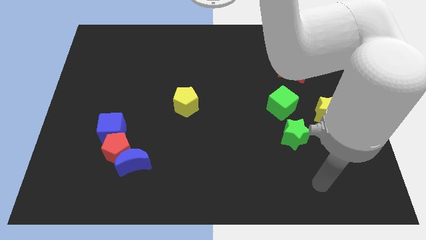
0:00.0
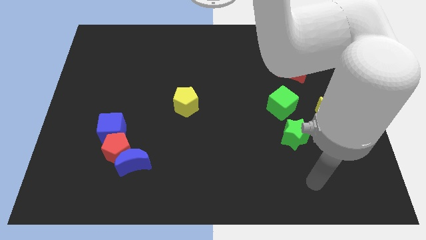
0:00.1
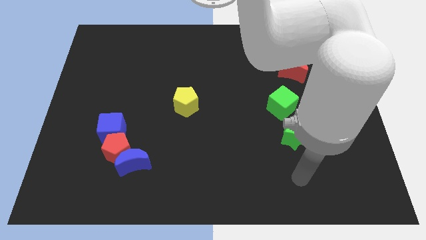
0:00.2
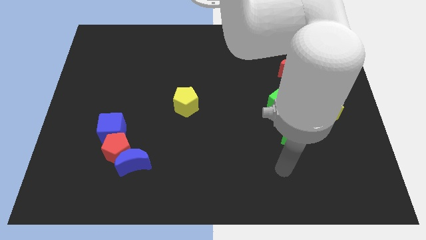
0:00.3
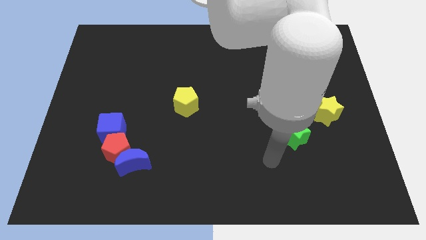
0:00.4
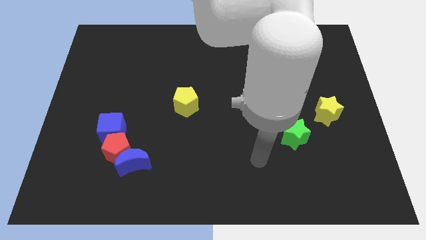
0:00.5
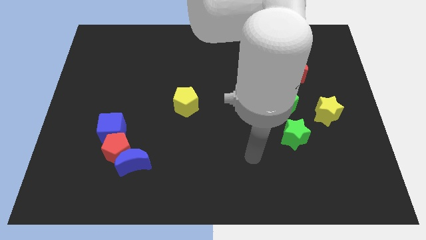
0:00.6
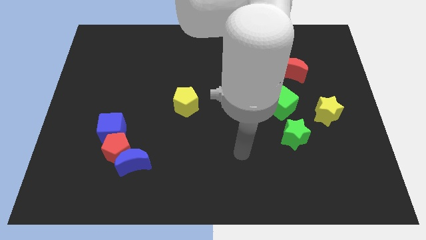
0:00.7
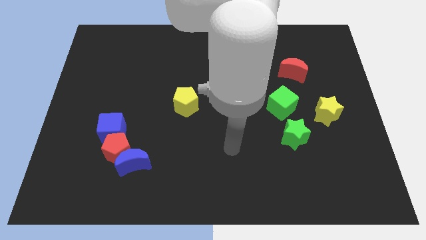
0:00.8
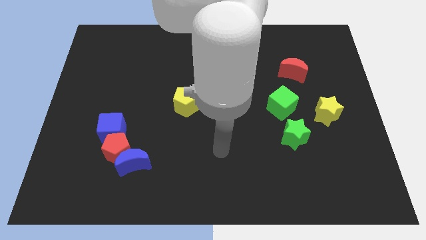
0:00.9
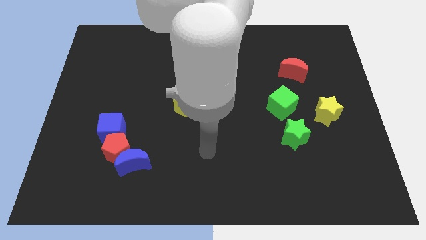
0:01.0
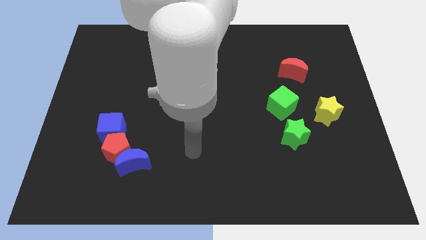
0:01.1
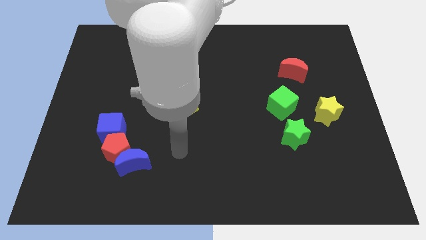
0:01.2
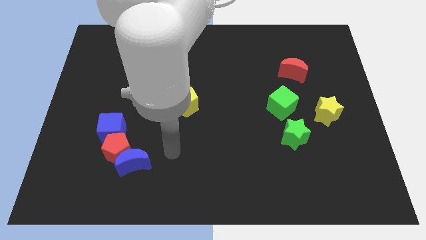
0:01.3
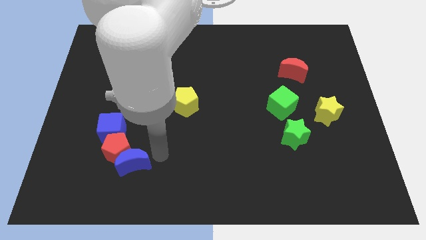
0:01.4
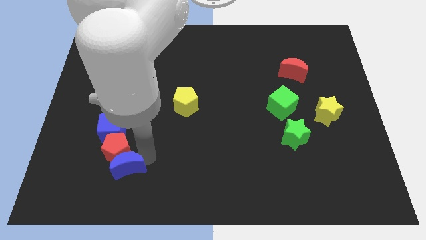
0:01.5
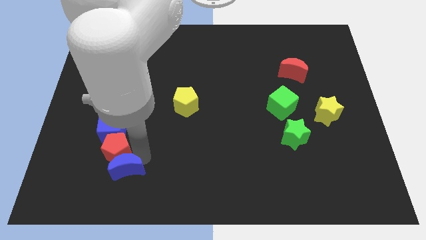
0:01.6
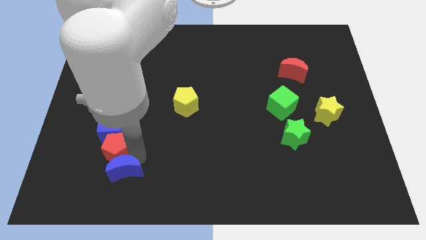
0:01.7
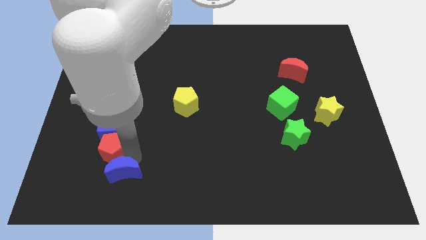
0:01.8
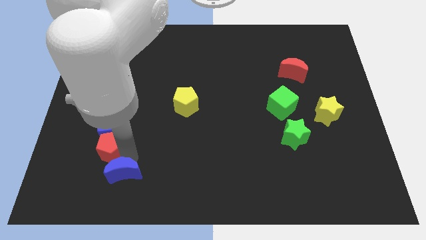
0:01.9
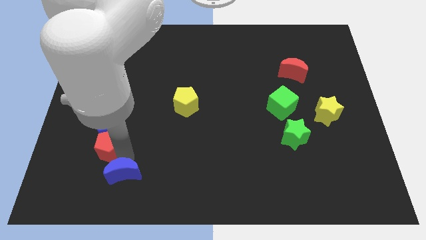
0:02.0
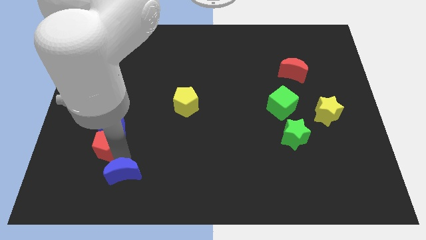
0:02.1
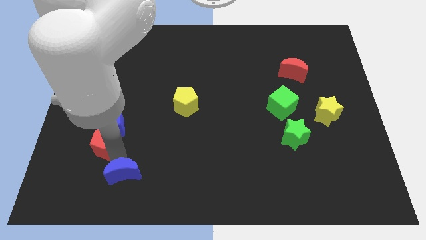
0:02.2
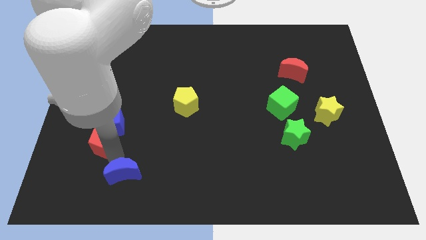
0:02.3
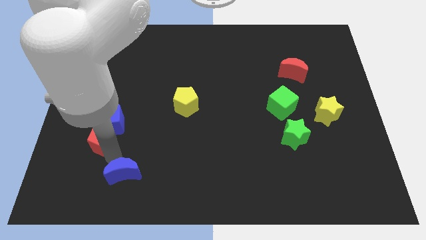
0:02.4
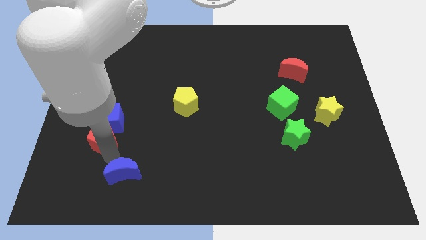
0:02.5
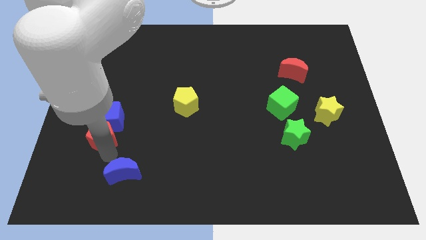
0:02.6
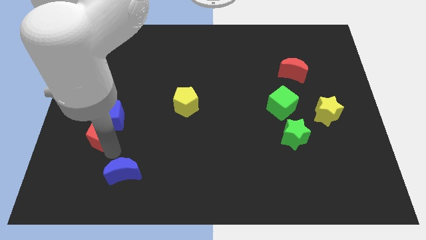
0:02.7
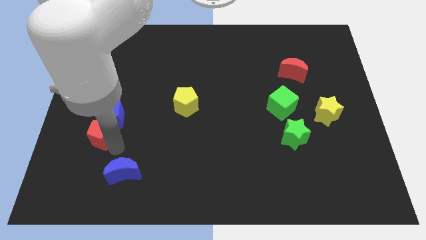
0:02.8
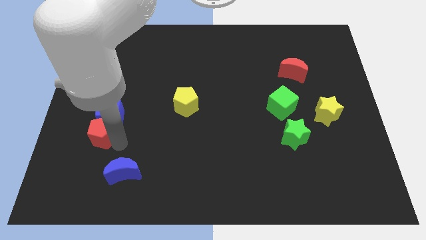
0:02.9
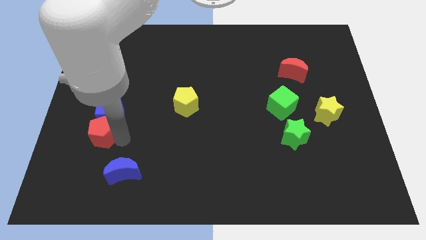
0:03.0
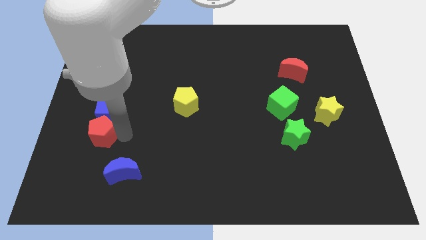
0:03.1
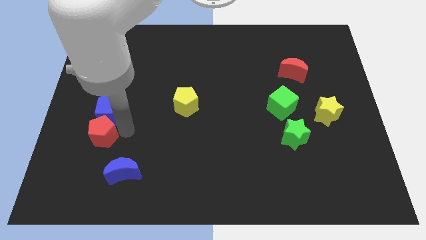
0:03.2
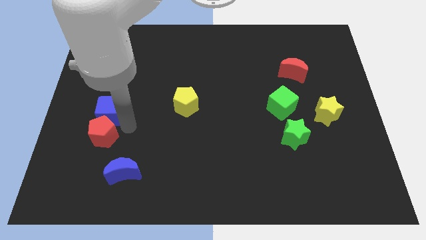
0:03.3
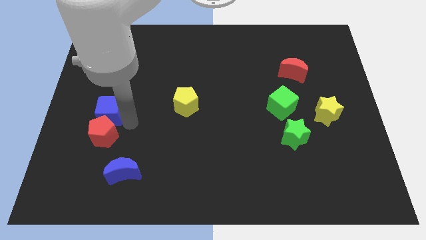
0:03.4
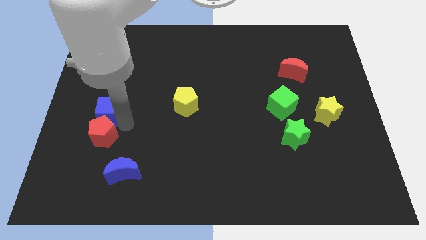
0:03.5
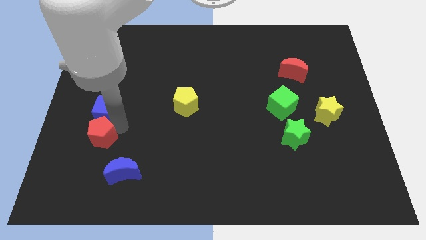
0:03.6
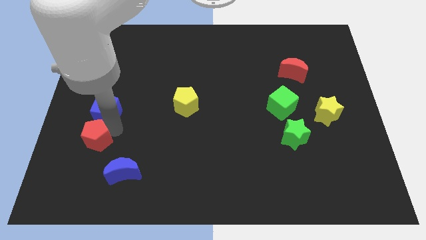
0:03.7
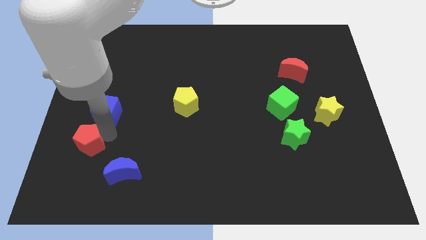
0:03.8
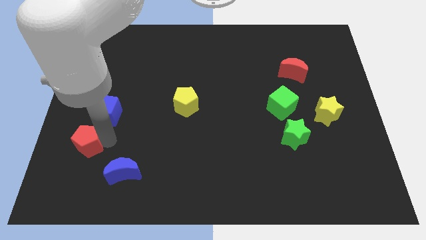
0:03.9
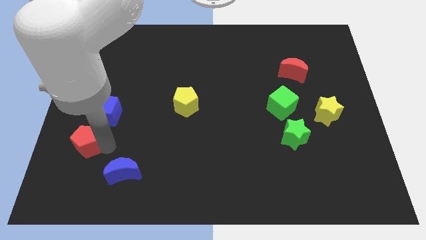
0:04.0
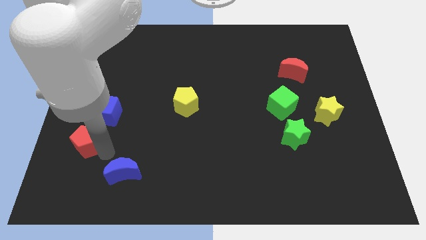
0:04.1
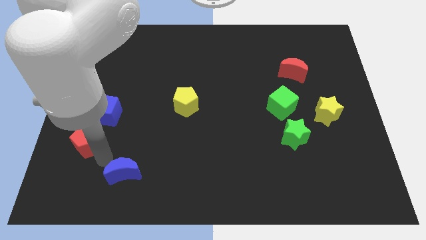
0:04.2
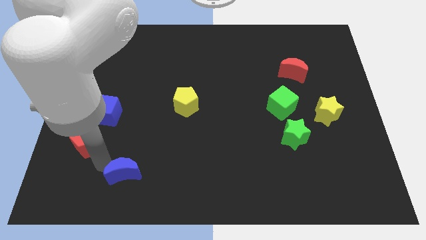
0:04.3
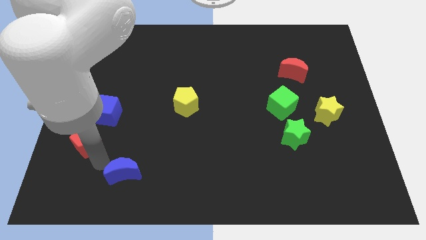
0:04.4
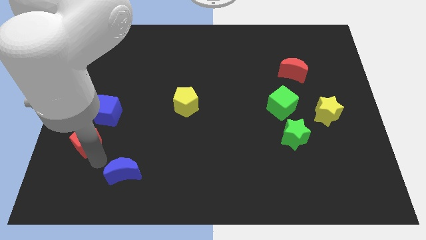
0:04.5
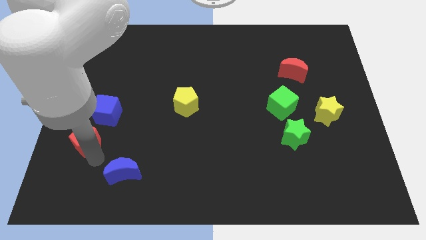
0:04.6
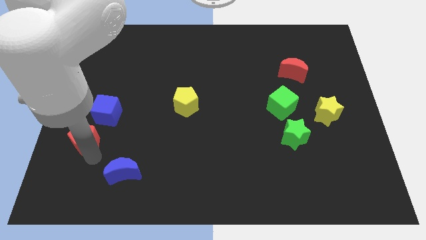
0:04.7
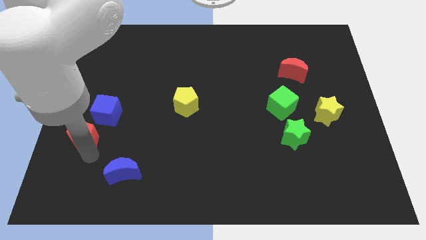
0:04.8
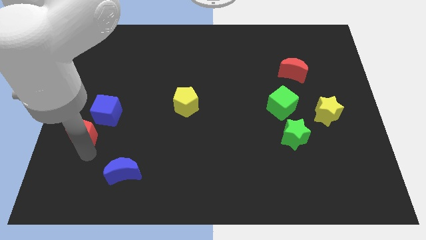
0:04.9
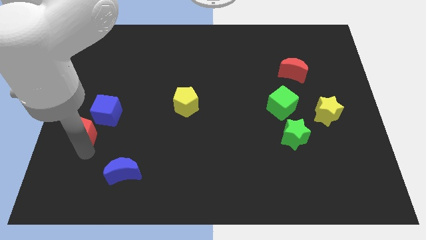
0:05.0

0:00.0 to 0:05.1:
slide the red pentagon to the left side of the board

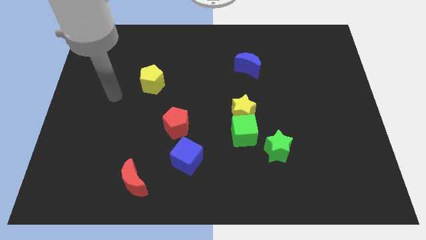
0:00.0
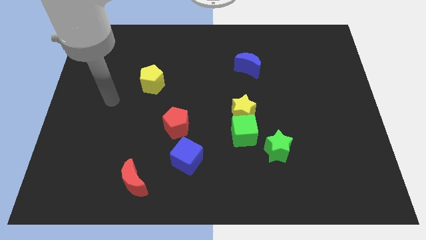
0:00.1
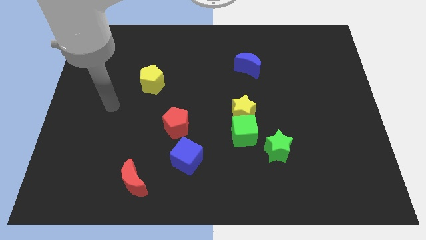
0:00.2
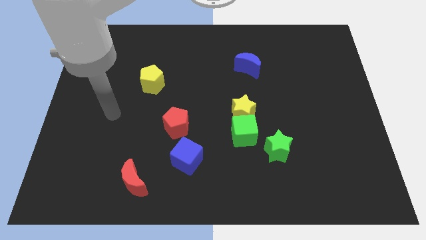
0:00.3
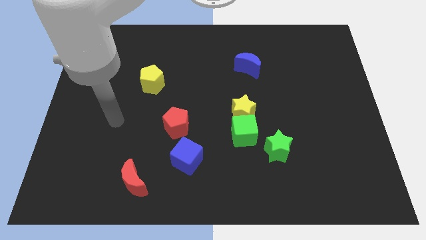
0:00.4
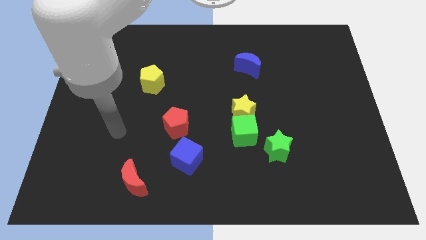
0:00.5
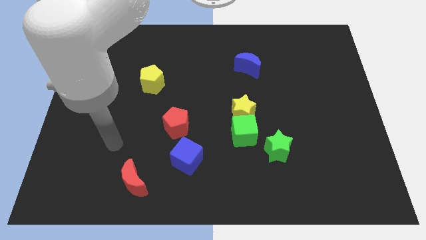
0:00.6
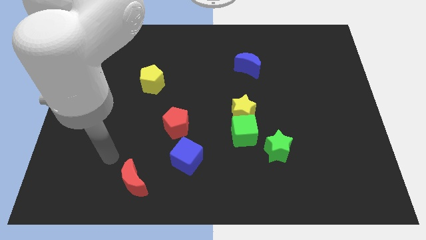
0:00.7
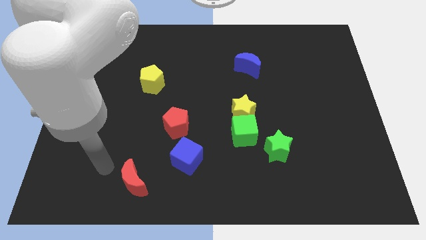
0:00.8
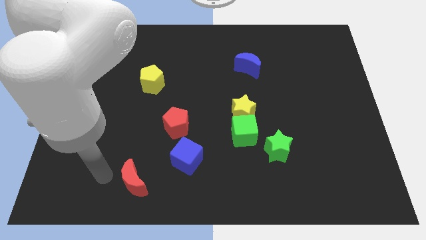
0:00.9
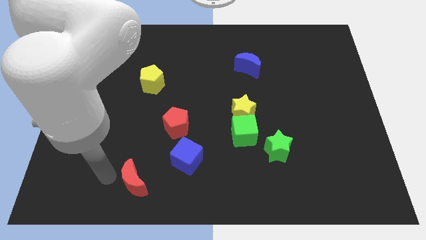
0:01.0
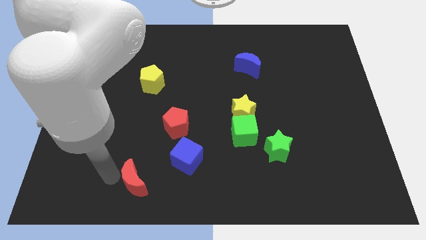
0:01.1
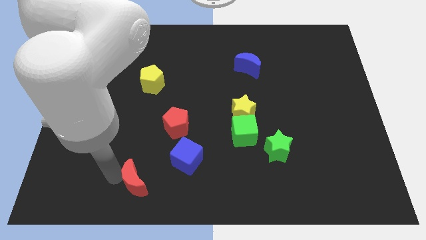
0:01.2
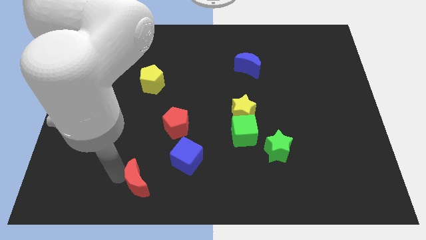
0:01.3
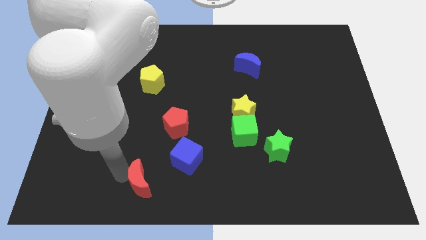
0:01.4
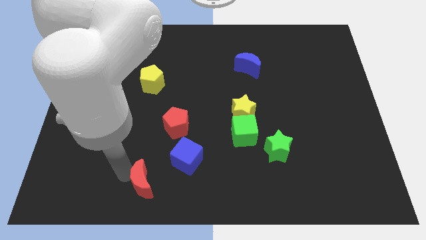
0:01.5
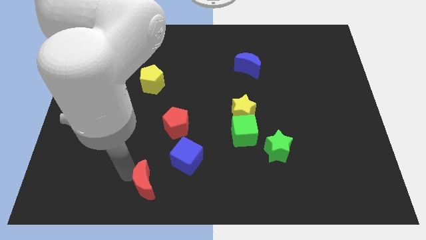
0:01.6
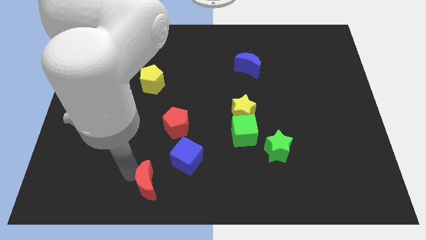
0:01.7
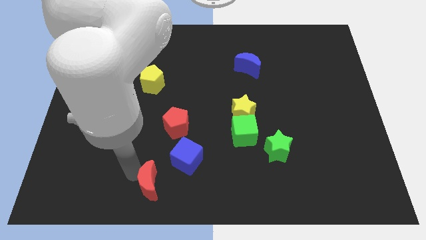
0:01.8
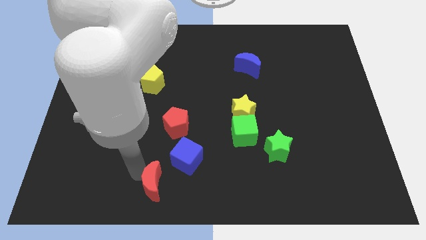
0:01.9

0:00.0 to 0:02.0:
put the red moon to the bottom
